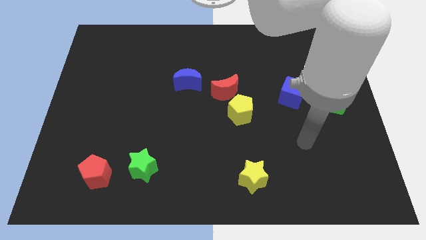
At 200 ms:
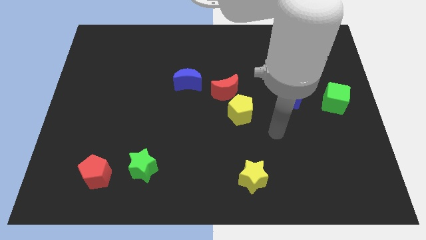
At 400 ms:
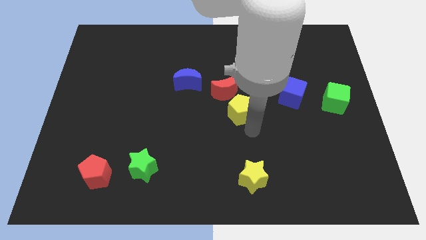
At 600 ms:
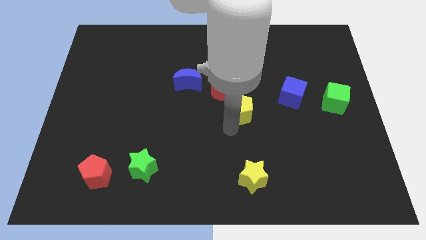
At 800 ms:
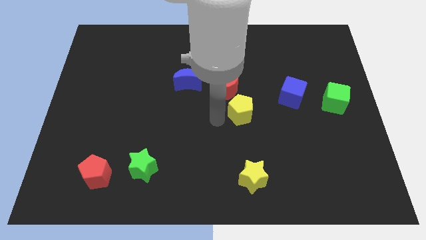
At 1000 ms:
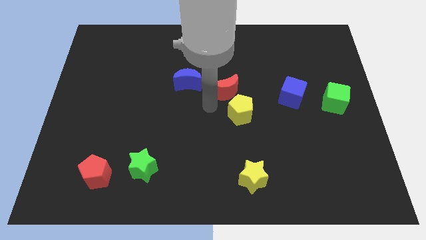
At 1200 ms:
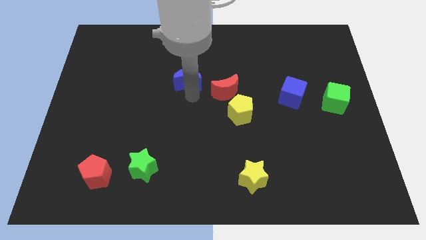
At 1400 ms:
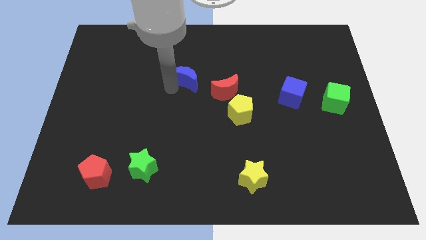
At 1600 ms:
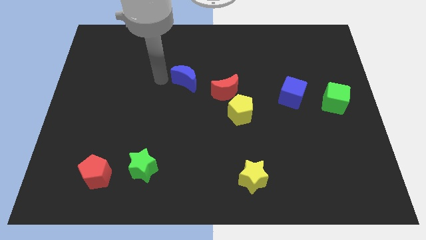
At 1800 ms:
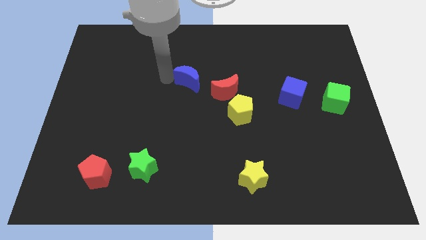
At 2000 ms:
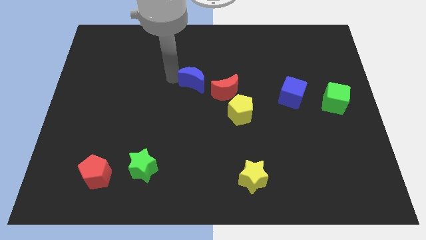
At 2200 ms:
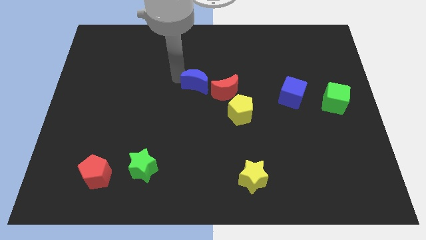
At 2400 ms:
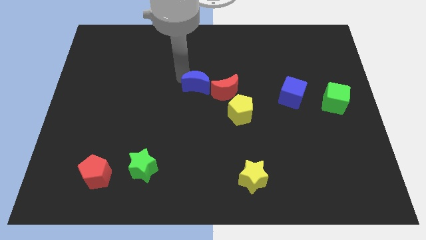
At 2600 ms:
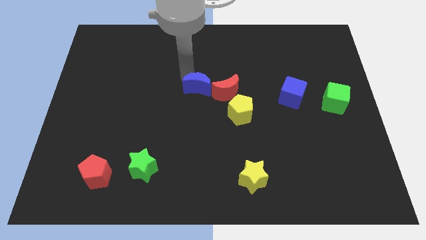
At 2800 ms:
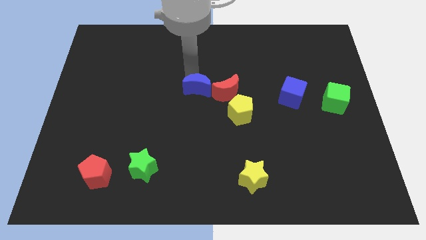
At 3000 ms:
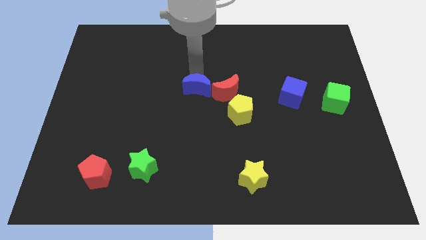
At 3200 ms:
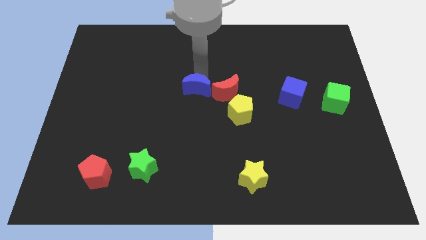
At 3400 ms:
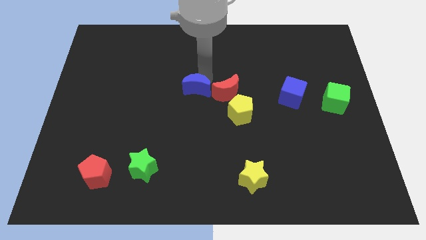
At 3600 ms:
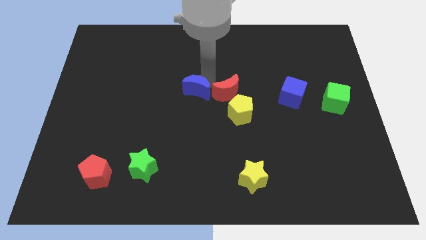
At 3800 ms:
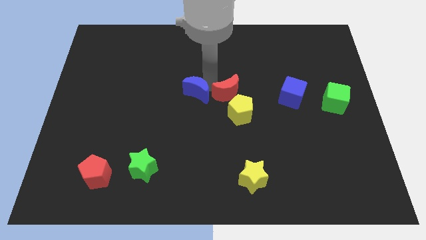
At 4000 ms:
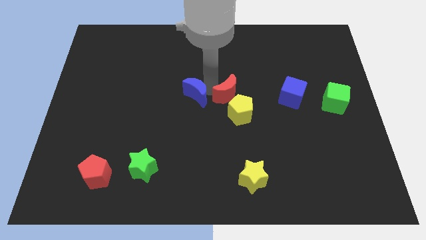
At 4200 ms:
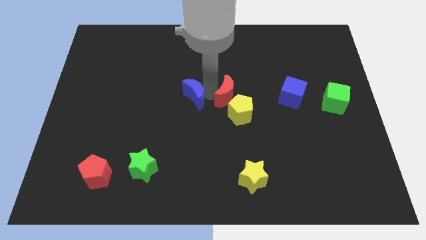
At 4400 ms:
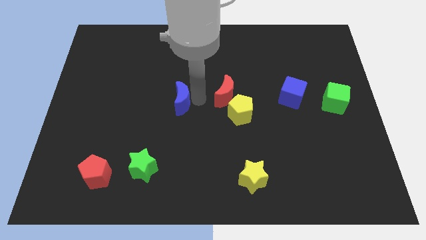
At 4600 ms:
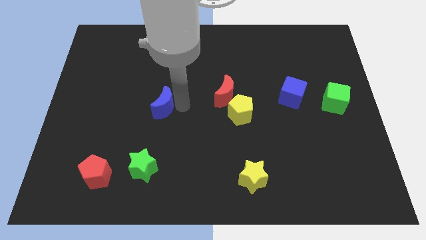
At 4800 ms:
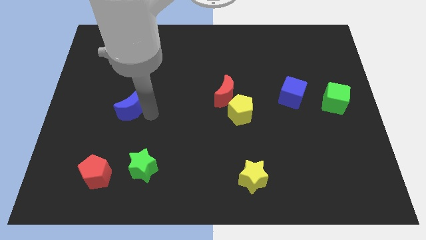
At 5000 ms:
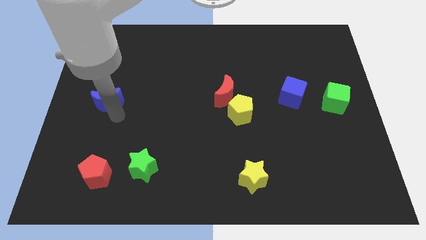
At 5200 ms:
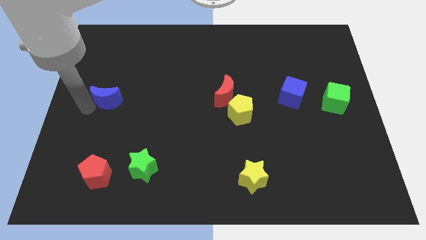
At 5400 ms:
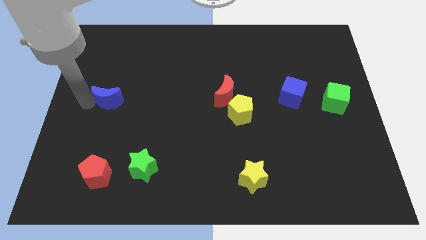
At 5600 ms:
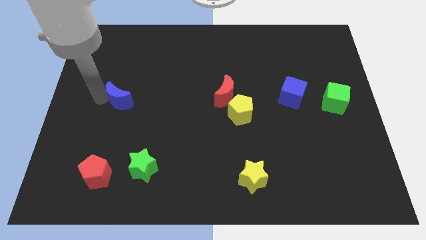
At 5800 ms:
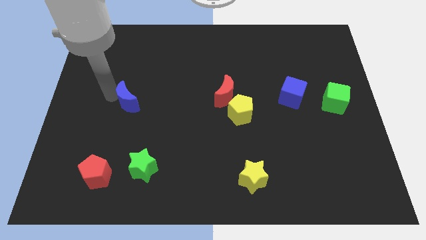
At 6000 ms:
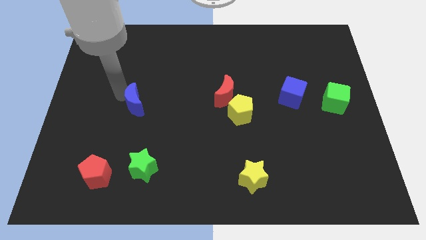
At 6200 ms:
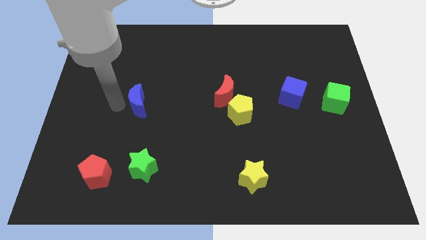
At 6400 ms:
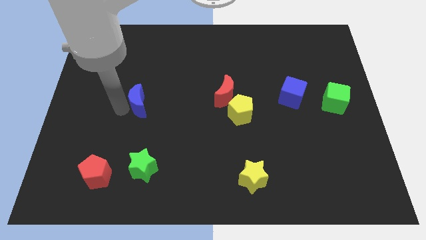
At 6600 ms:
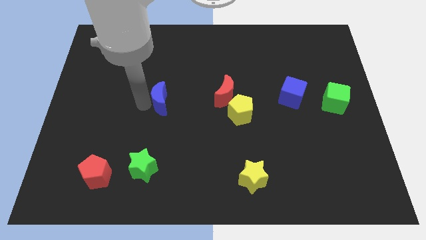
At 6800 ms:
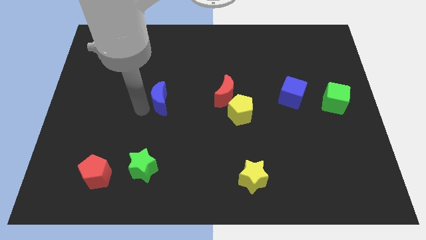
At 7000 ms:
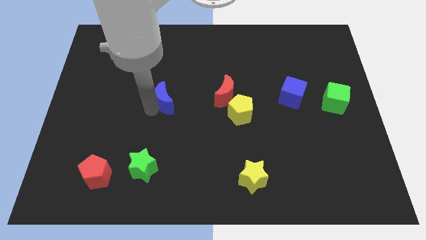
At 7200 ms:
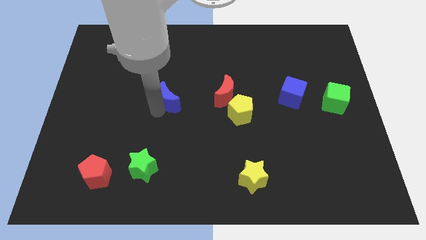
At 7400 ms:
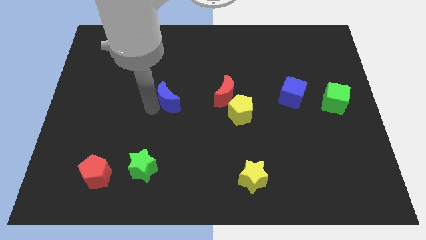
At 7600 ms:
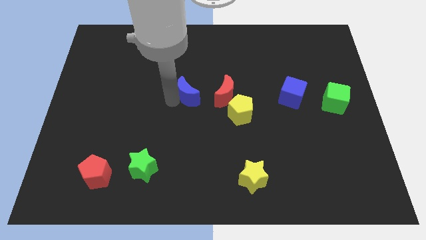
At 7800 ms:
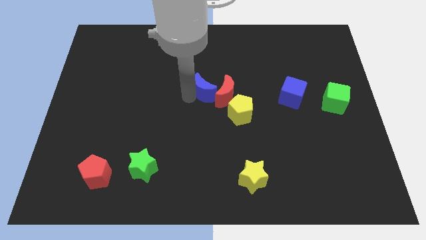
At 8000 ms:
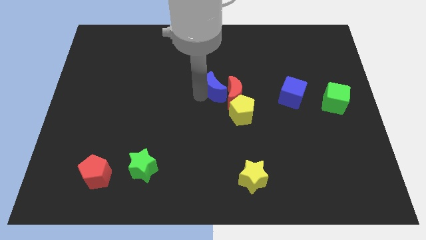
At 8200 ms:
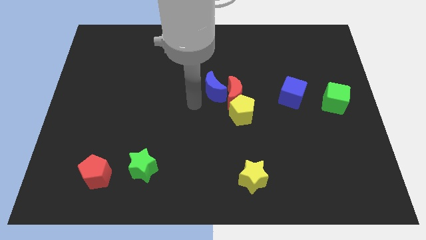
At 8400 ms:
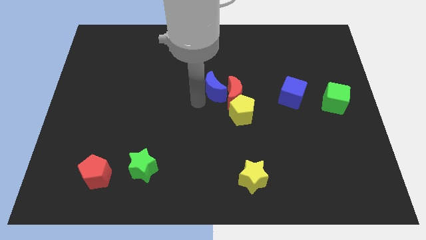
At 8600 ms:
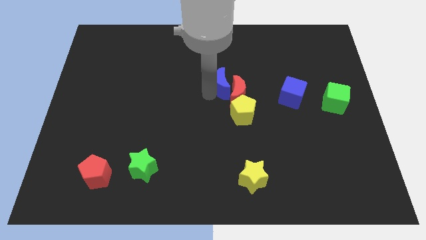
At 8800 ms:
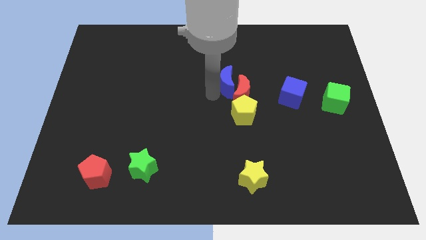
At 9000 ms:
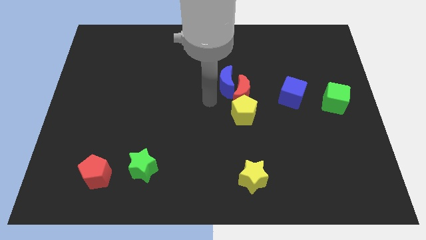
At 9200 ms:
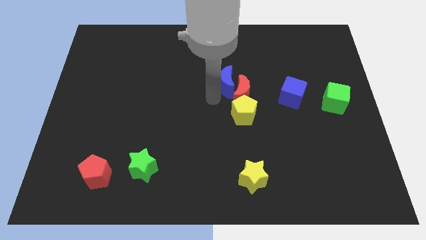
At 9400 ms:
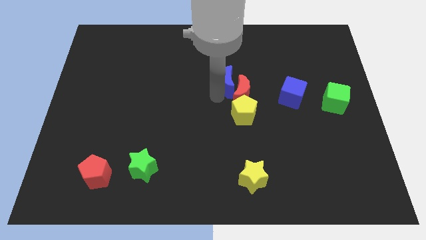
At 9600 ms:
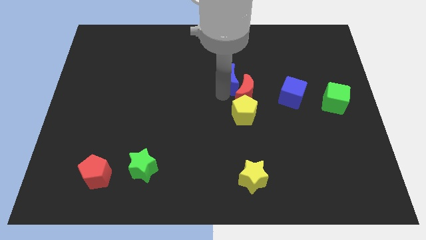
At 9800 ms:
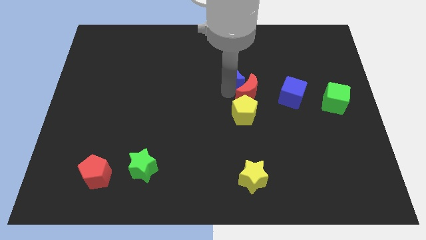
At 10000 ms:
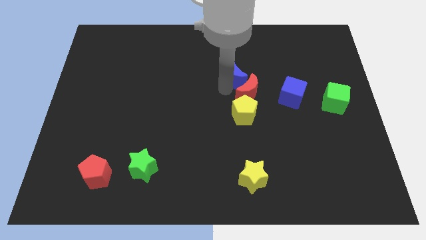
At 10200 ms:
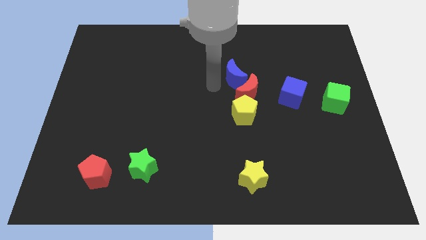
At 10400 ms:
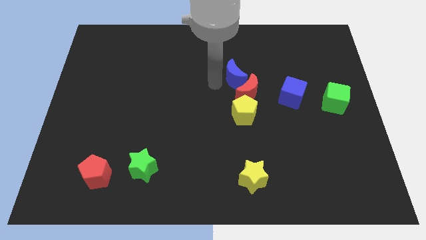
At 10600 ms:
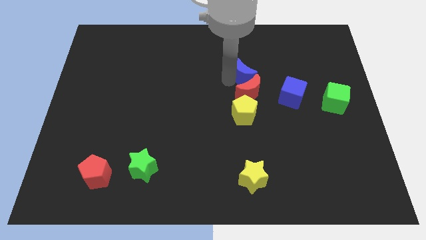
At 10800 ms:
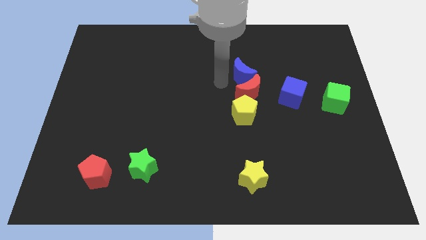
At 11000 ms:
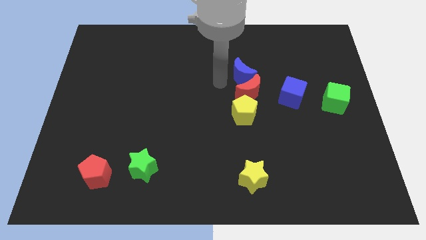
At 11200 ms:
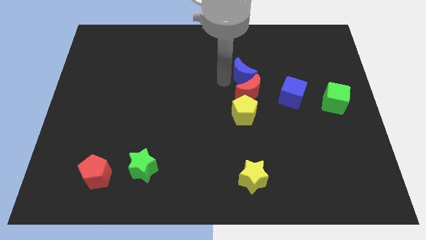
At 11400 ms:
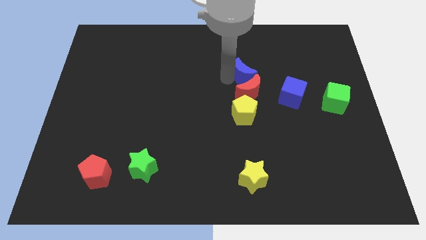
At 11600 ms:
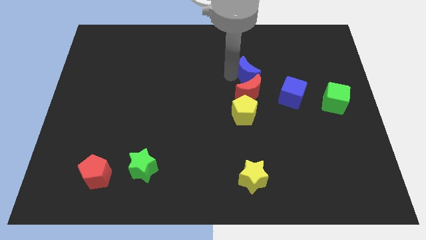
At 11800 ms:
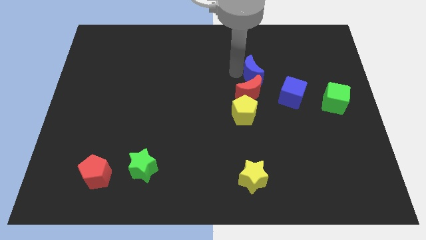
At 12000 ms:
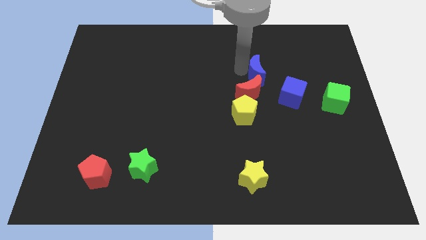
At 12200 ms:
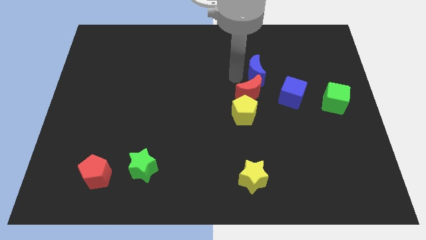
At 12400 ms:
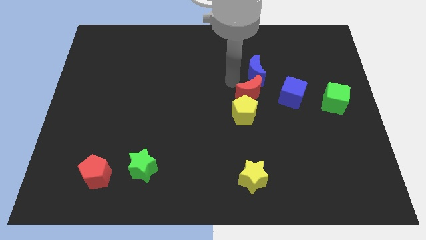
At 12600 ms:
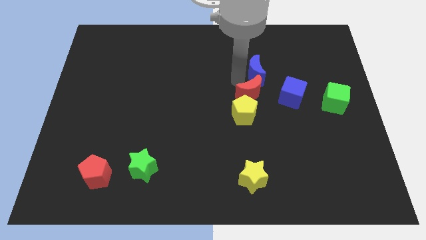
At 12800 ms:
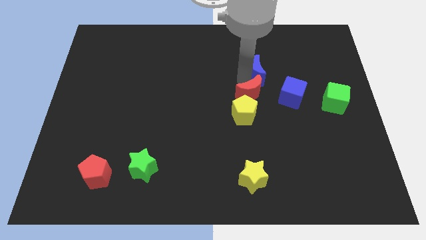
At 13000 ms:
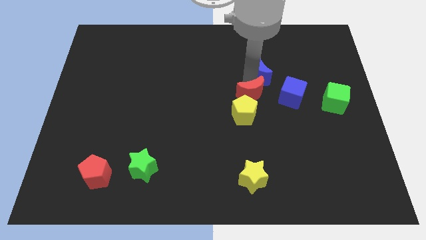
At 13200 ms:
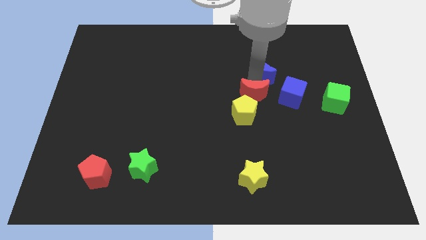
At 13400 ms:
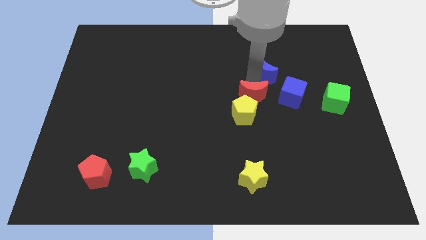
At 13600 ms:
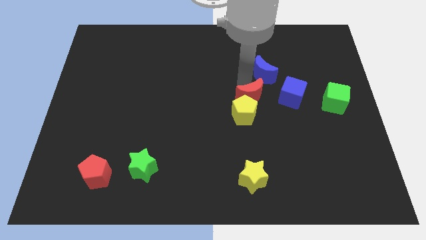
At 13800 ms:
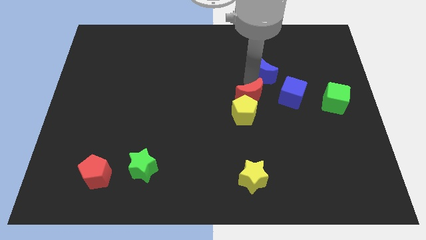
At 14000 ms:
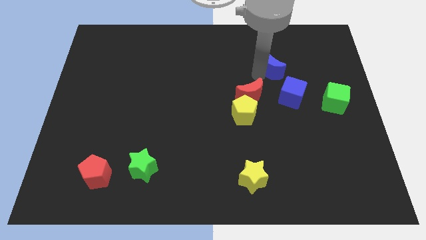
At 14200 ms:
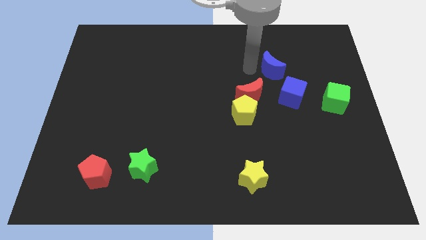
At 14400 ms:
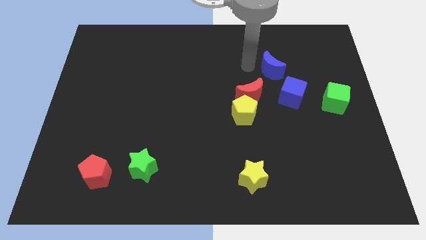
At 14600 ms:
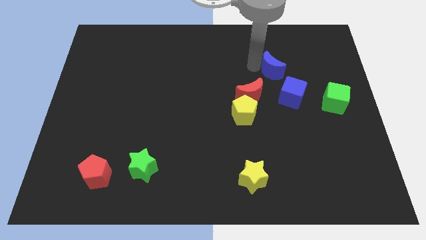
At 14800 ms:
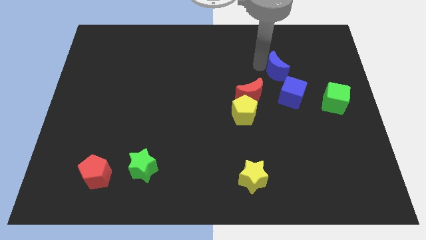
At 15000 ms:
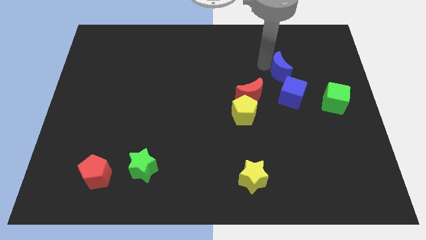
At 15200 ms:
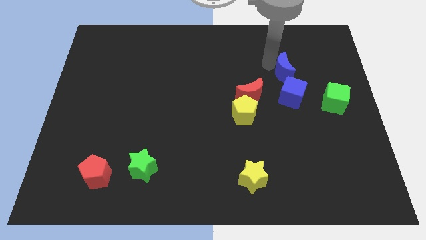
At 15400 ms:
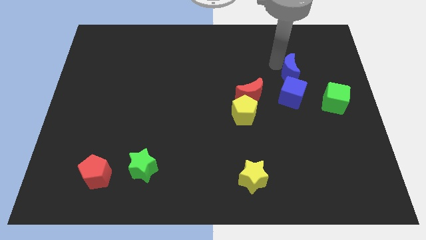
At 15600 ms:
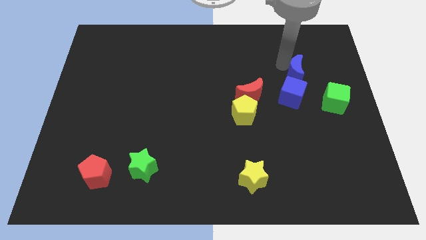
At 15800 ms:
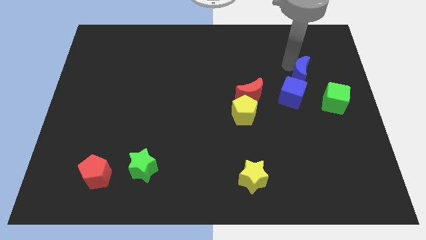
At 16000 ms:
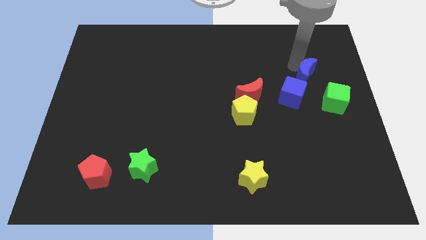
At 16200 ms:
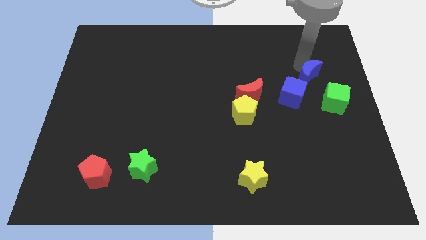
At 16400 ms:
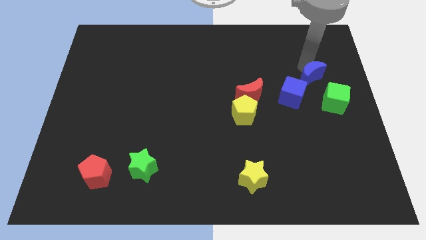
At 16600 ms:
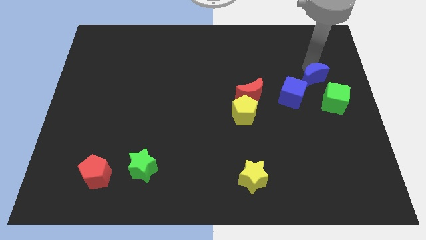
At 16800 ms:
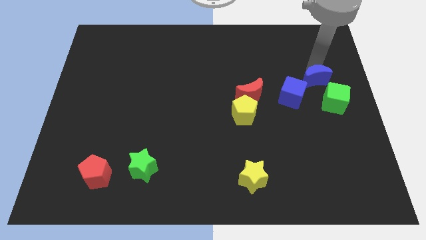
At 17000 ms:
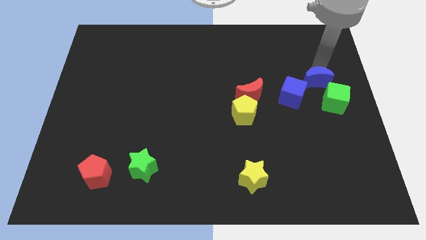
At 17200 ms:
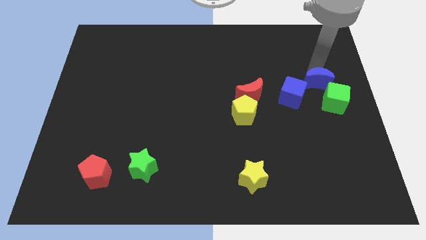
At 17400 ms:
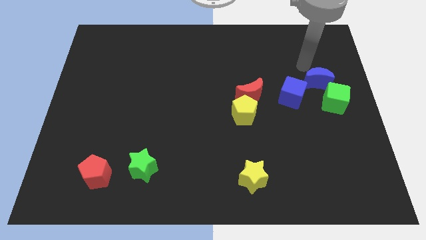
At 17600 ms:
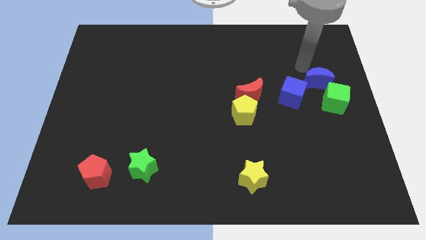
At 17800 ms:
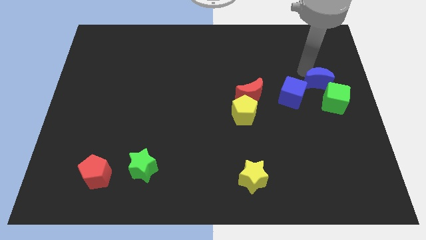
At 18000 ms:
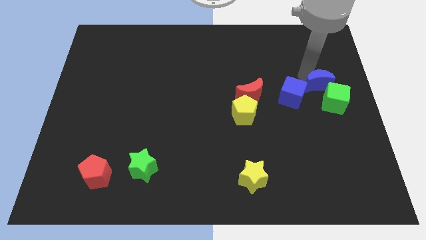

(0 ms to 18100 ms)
put the blue moon next to the green cube
